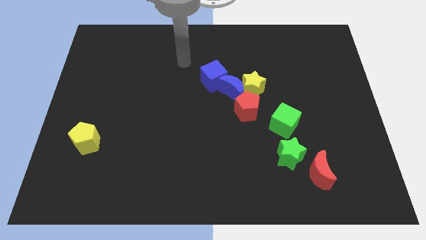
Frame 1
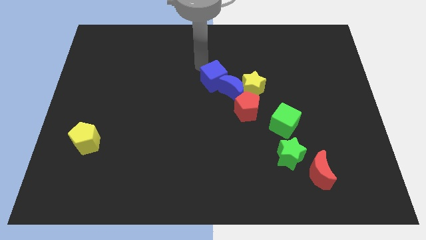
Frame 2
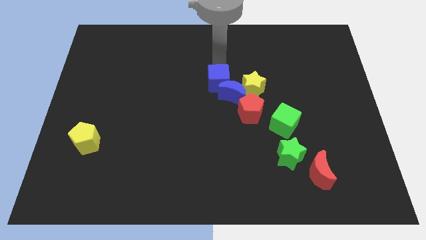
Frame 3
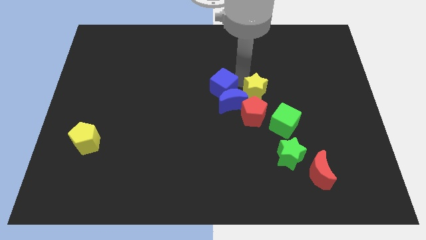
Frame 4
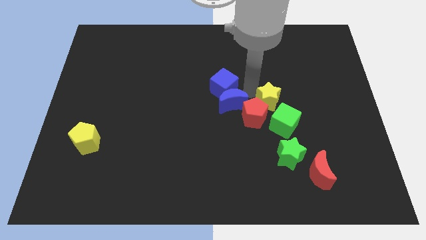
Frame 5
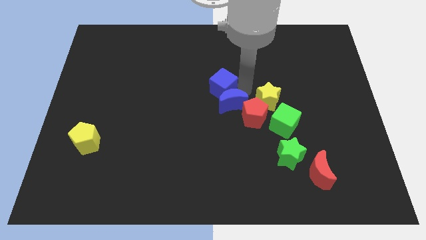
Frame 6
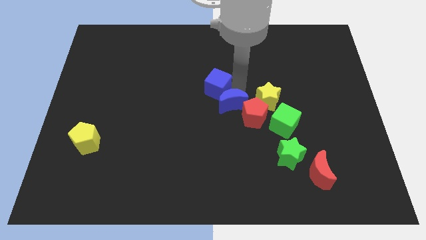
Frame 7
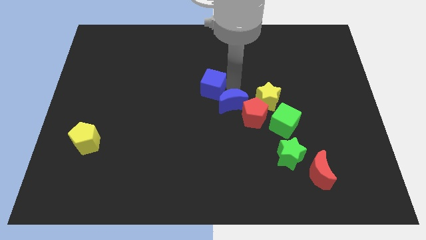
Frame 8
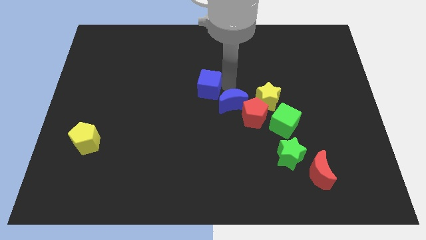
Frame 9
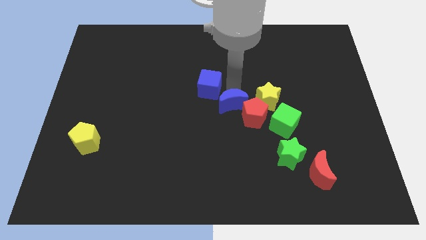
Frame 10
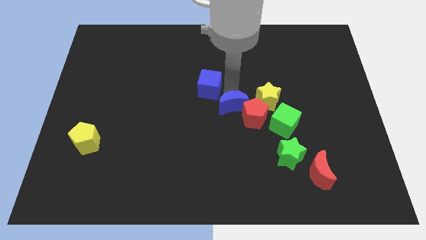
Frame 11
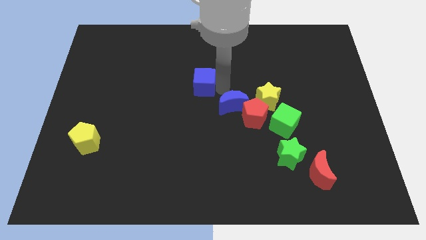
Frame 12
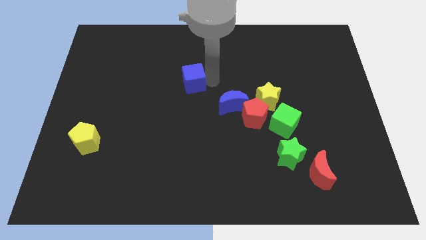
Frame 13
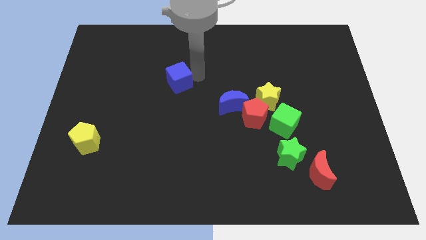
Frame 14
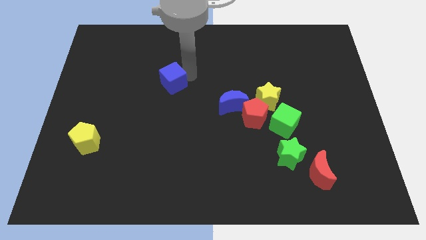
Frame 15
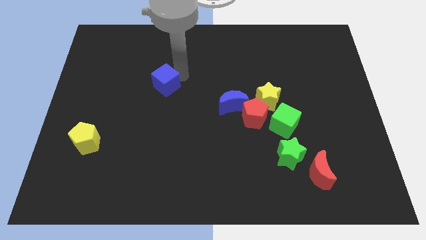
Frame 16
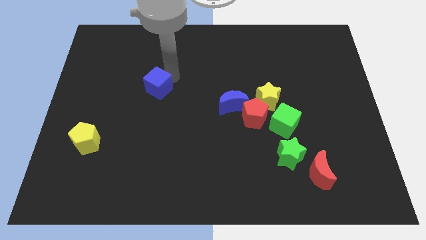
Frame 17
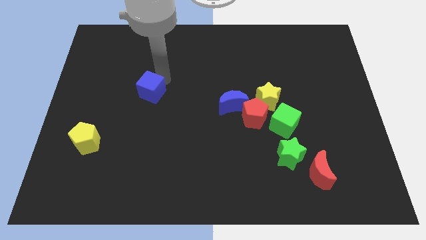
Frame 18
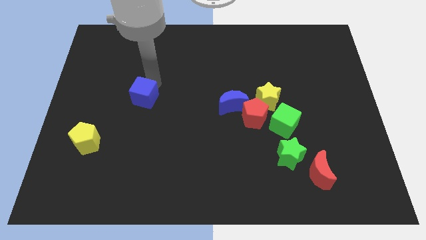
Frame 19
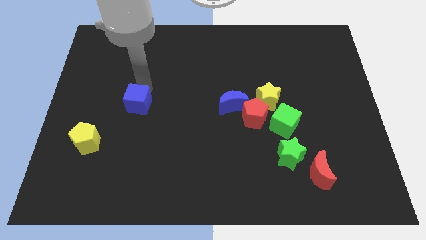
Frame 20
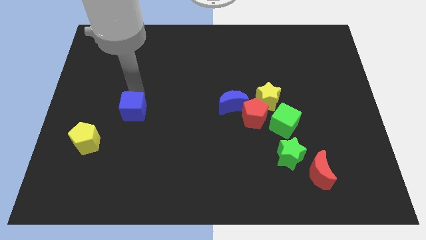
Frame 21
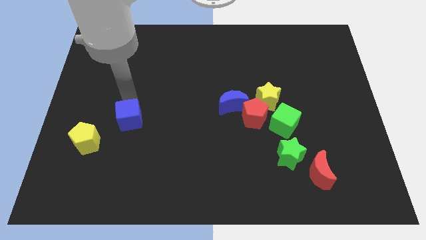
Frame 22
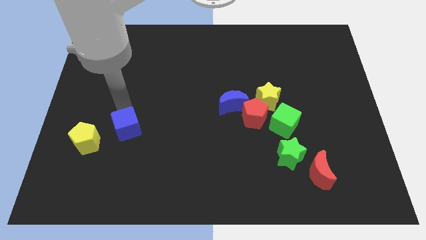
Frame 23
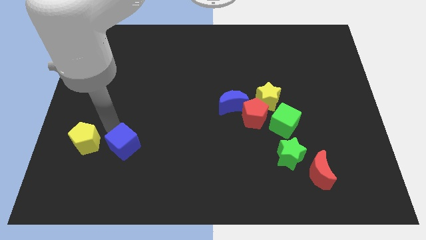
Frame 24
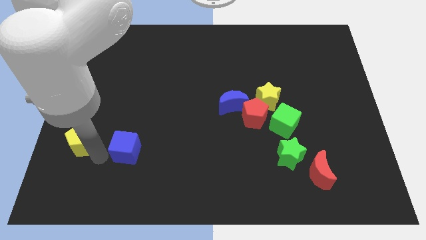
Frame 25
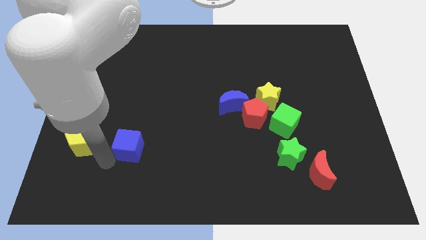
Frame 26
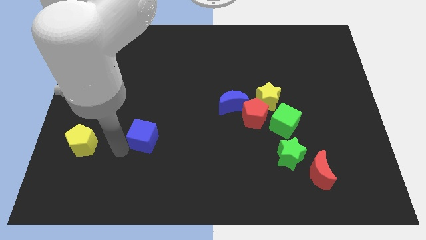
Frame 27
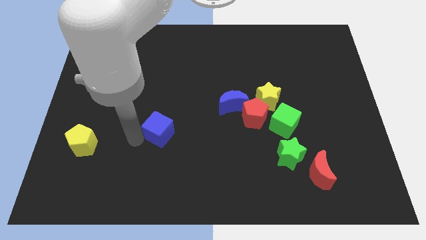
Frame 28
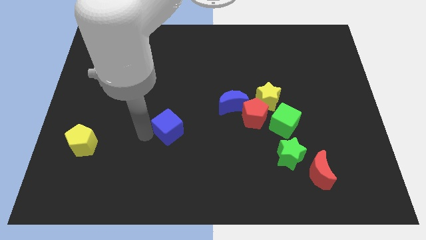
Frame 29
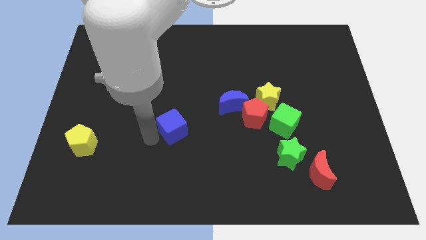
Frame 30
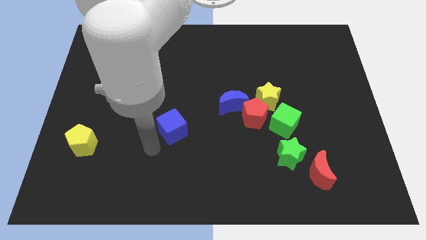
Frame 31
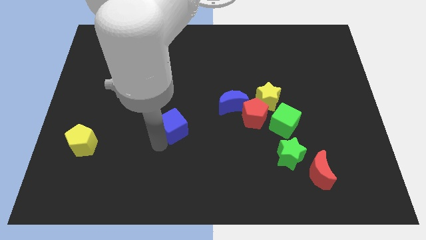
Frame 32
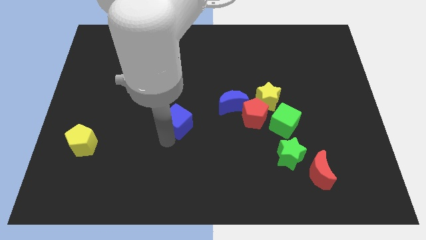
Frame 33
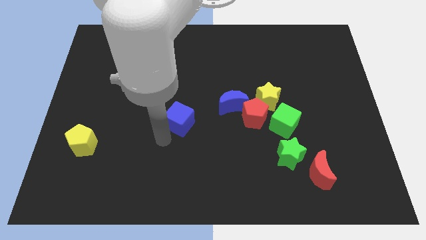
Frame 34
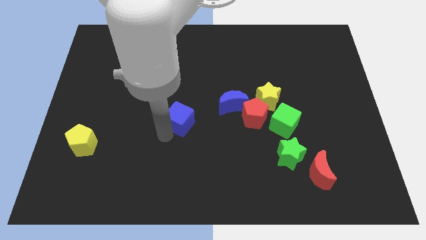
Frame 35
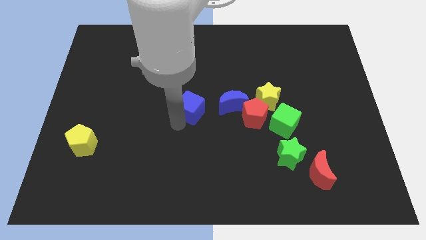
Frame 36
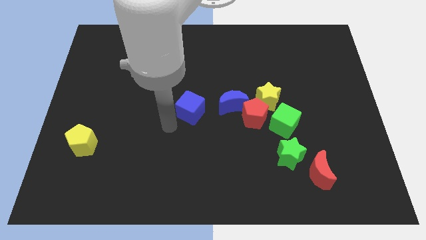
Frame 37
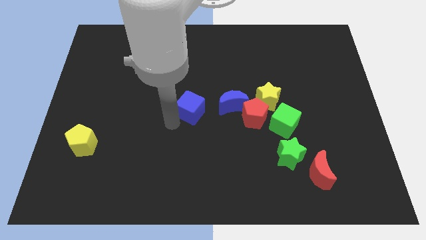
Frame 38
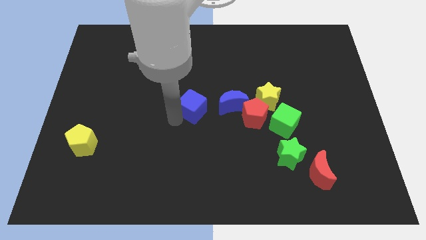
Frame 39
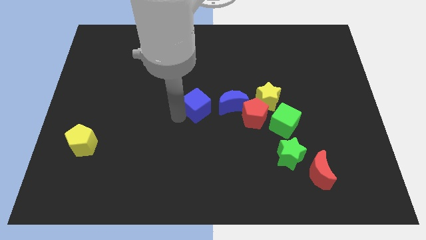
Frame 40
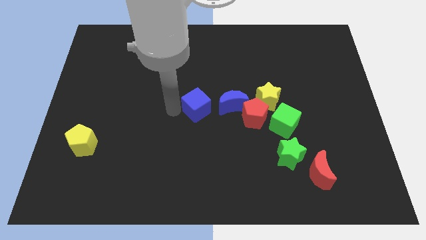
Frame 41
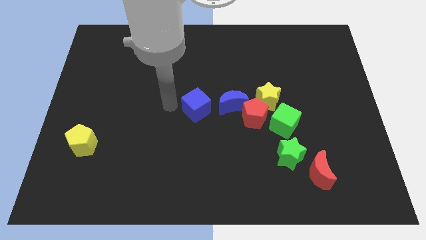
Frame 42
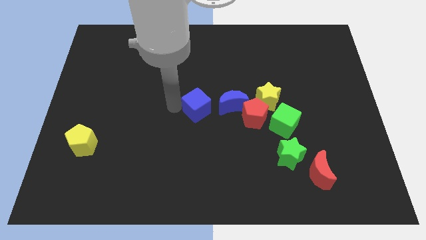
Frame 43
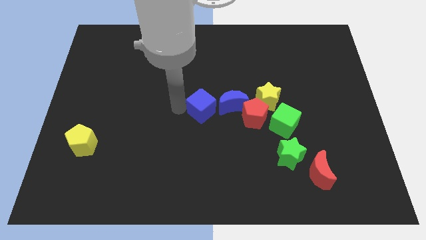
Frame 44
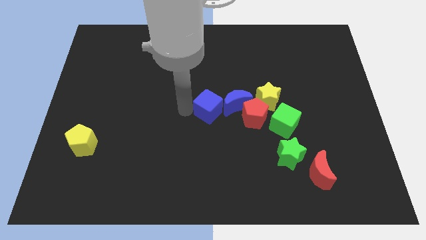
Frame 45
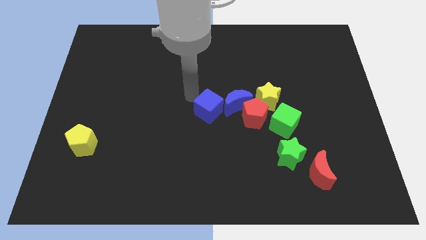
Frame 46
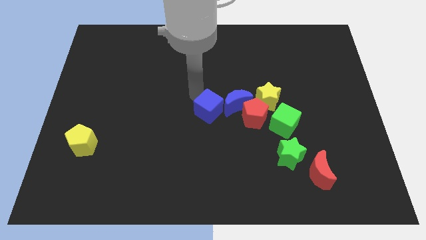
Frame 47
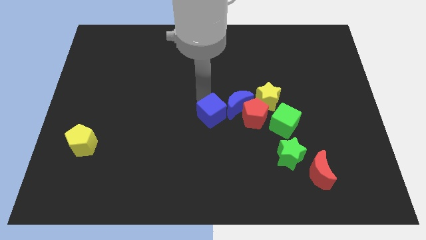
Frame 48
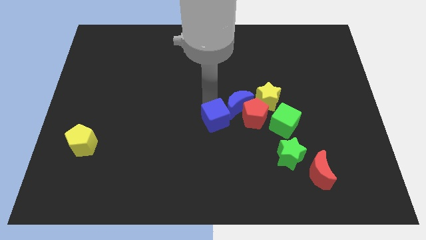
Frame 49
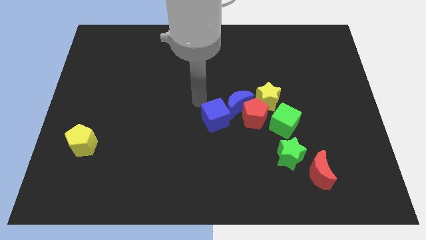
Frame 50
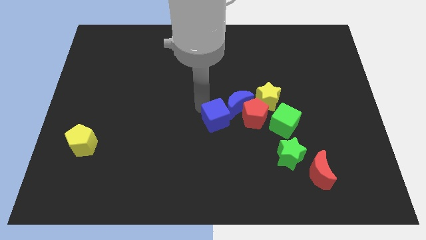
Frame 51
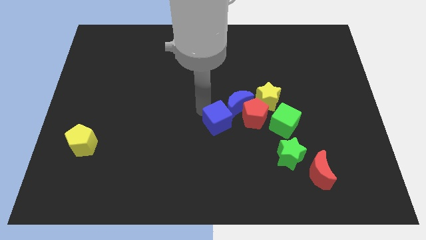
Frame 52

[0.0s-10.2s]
slide the blue cube to the bottom side of the blue moon

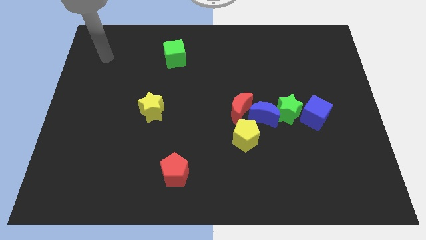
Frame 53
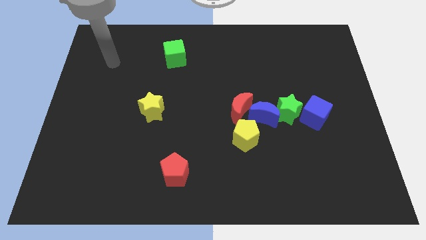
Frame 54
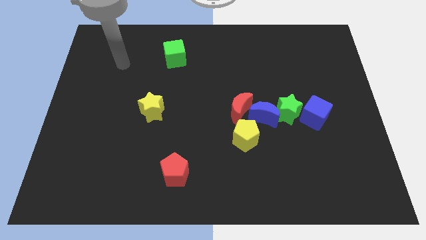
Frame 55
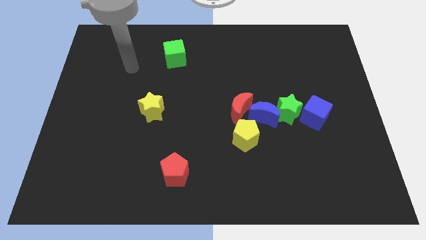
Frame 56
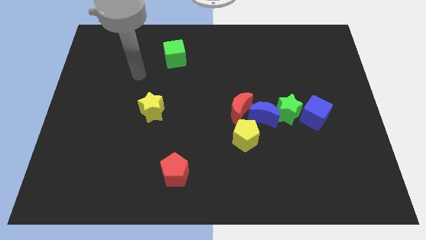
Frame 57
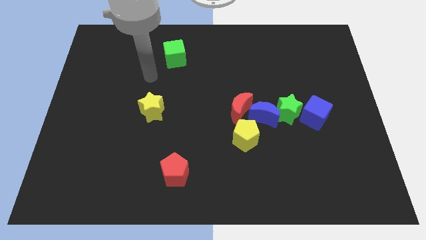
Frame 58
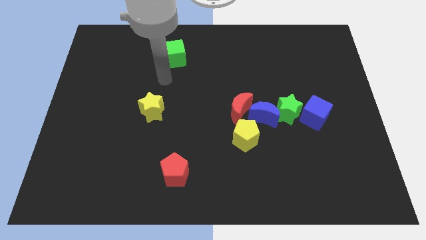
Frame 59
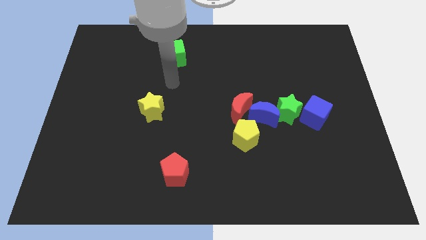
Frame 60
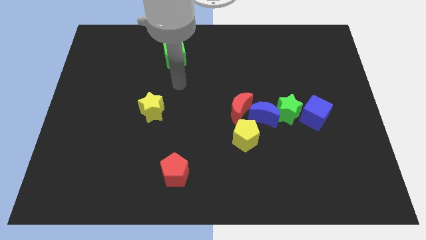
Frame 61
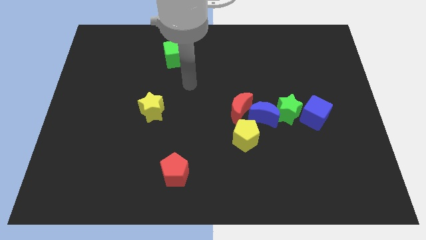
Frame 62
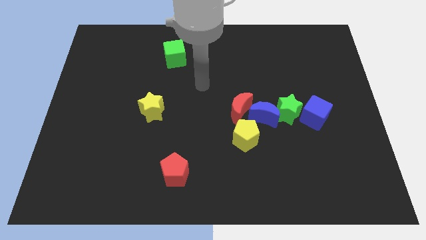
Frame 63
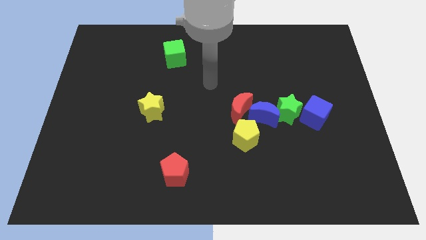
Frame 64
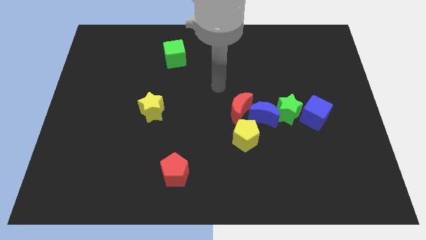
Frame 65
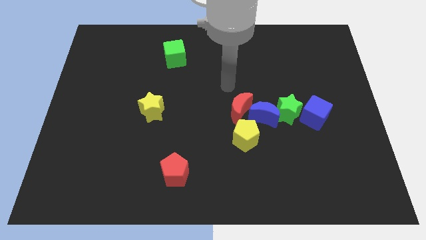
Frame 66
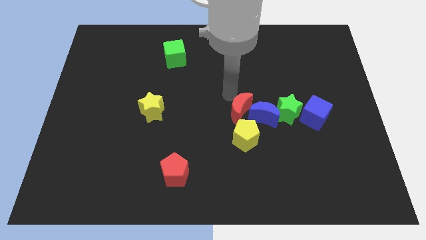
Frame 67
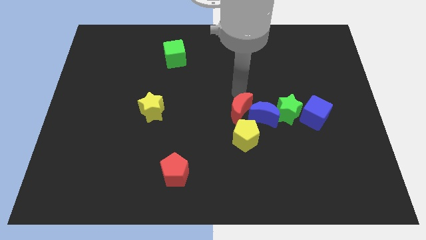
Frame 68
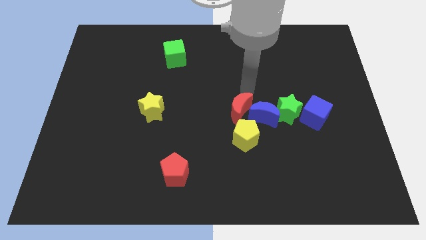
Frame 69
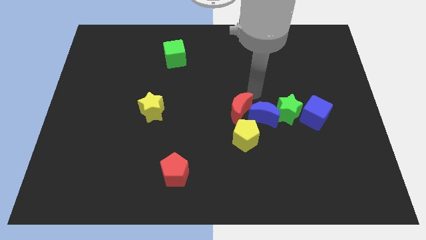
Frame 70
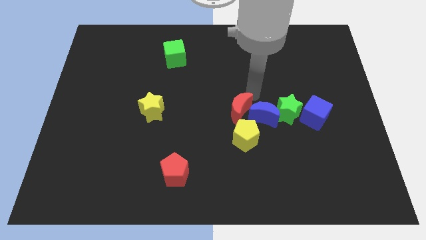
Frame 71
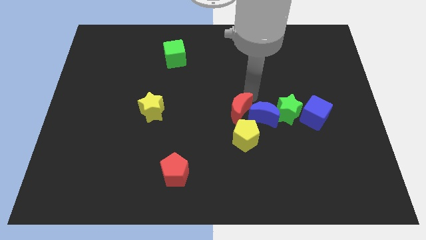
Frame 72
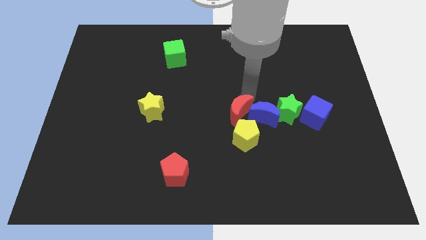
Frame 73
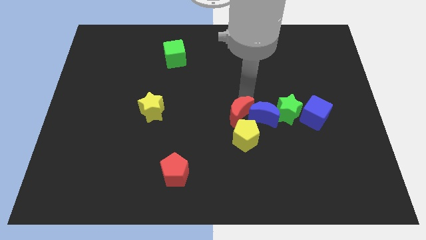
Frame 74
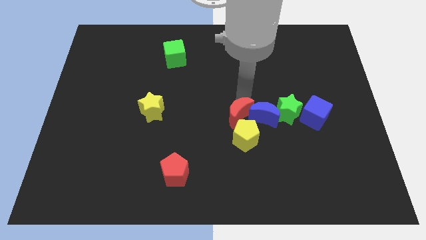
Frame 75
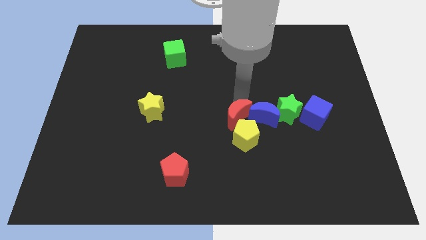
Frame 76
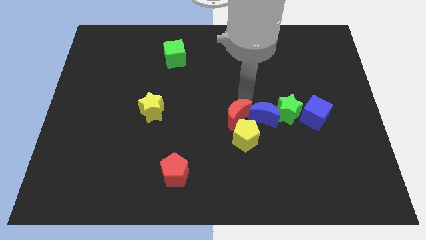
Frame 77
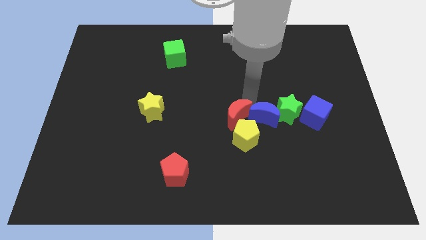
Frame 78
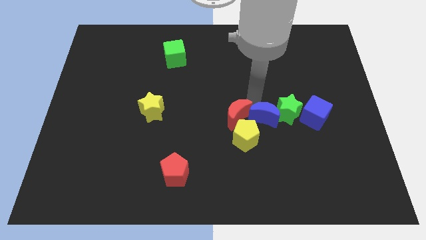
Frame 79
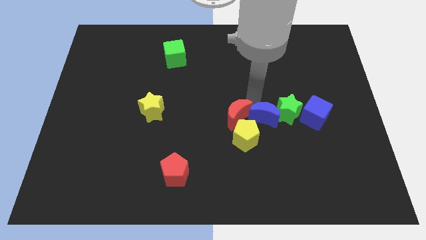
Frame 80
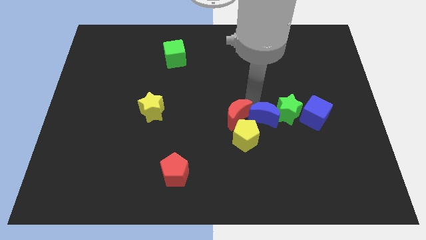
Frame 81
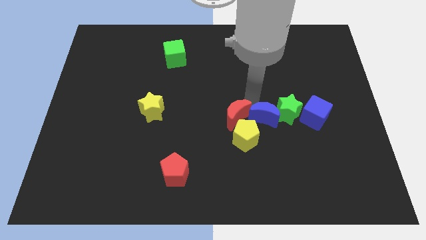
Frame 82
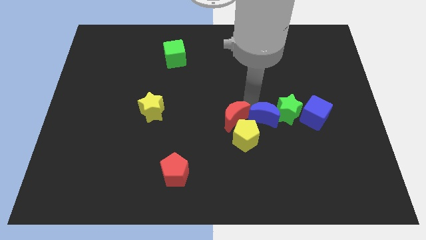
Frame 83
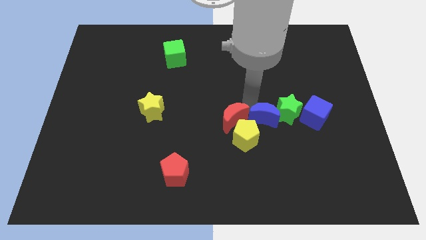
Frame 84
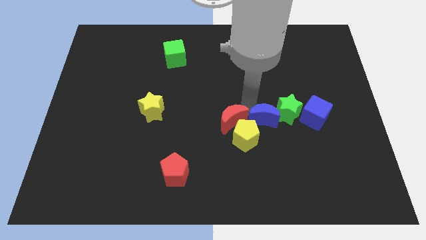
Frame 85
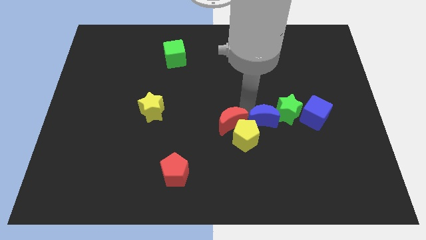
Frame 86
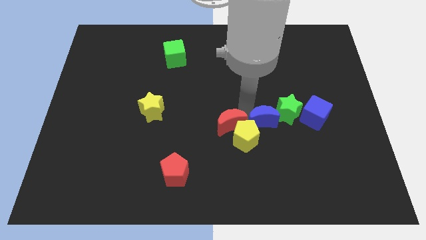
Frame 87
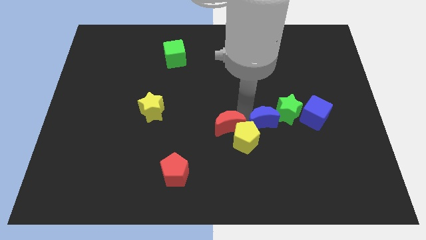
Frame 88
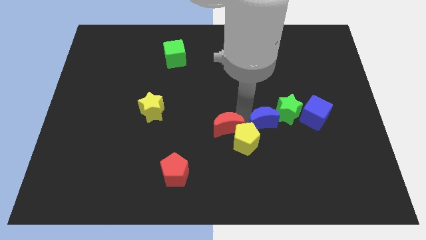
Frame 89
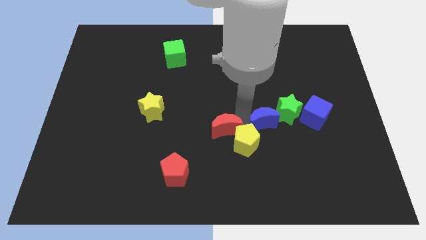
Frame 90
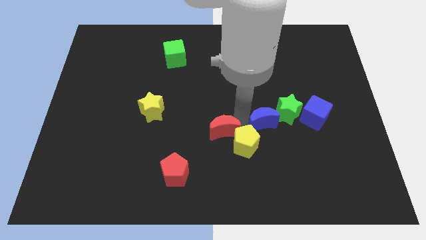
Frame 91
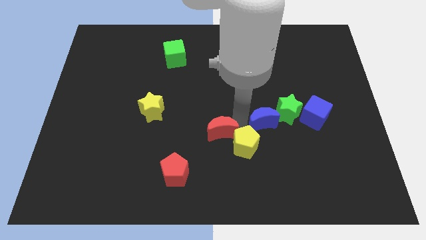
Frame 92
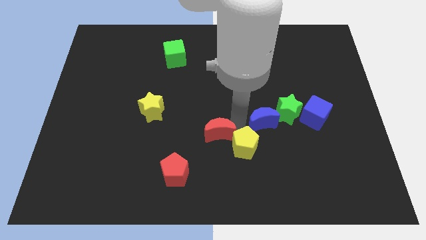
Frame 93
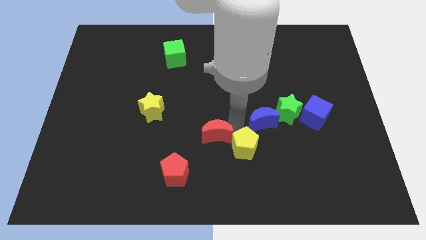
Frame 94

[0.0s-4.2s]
push the red moon diagonally up and to the right of the red pentagon
